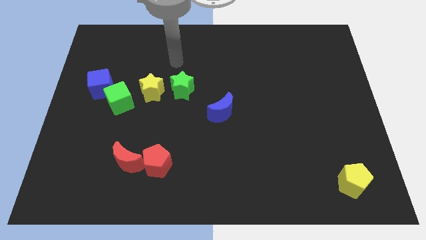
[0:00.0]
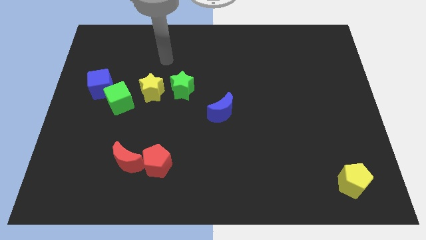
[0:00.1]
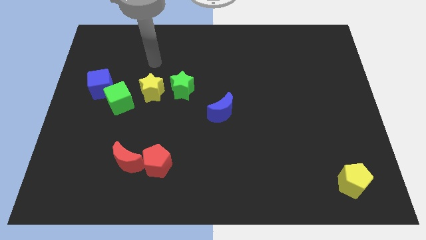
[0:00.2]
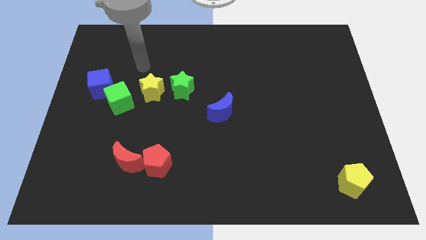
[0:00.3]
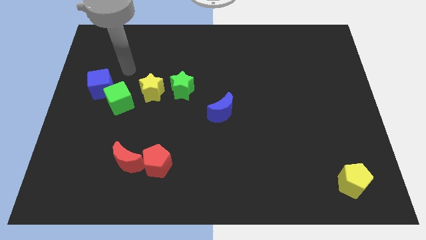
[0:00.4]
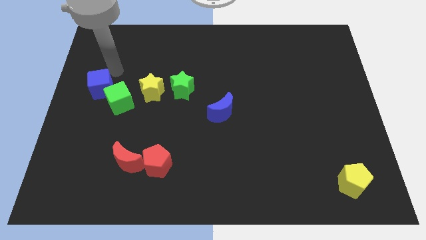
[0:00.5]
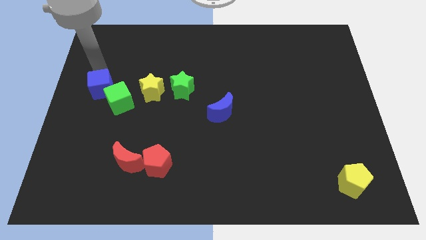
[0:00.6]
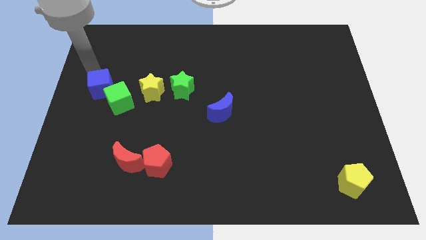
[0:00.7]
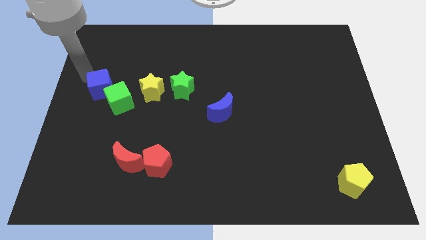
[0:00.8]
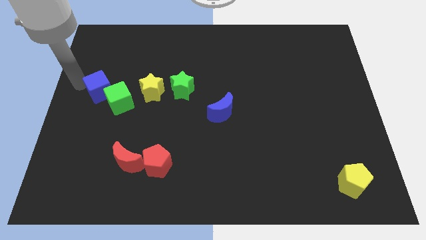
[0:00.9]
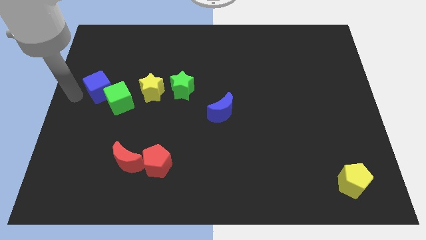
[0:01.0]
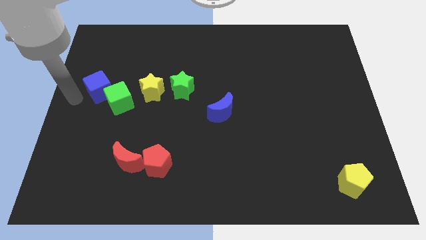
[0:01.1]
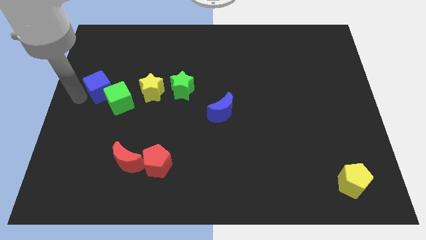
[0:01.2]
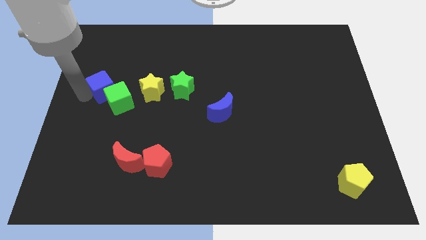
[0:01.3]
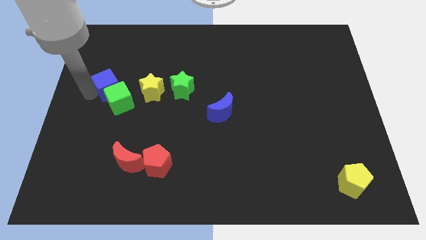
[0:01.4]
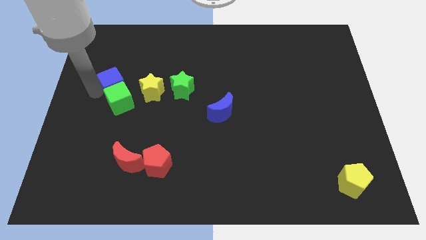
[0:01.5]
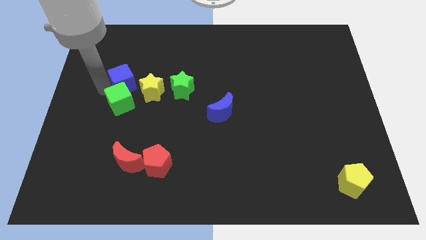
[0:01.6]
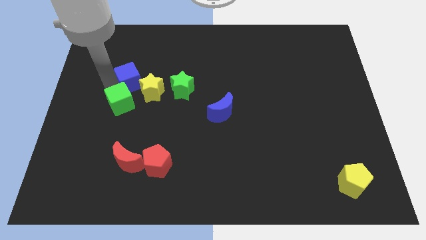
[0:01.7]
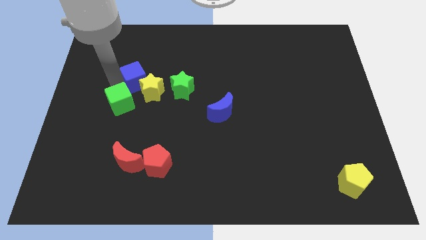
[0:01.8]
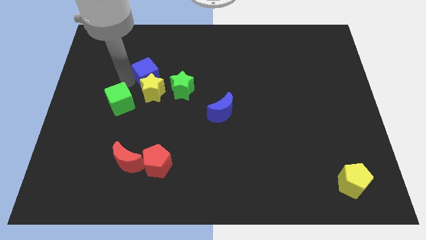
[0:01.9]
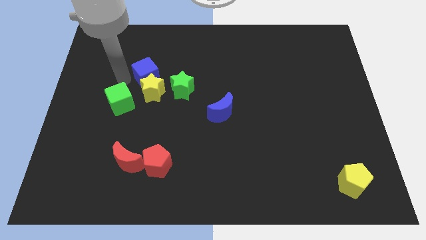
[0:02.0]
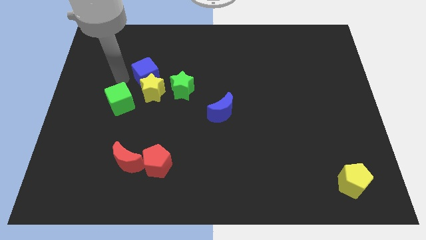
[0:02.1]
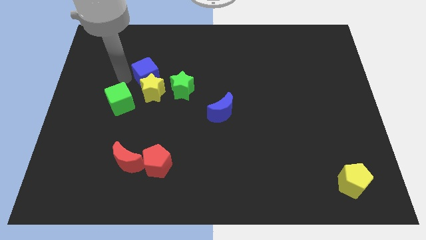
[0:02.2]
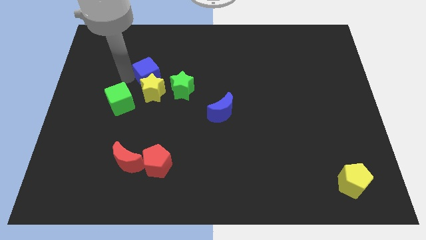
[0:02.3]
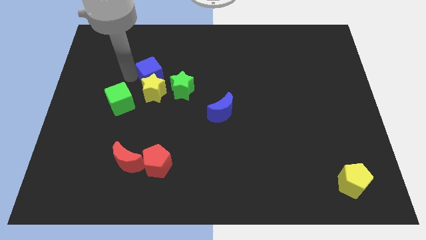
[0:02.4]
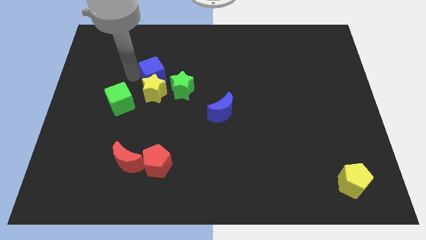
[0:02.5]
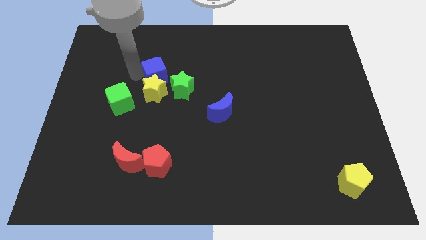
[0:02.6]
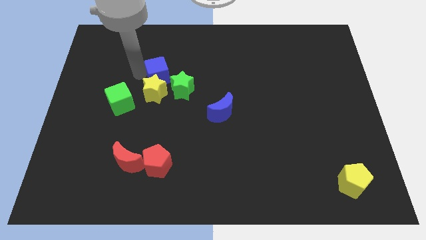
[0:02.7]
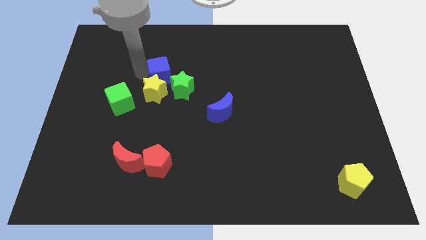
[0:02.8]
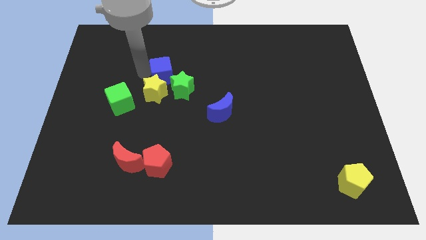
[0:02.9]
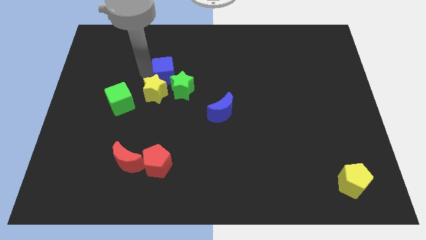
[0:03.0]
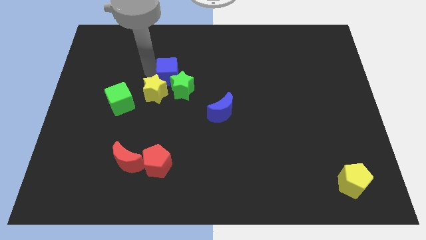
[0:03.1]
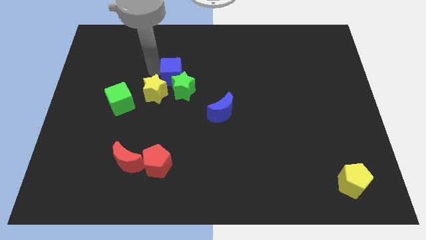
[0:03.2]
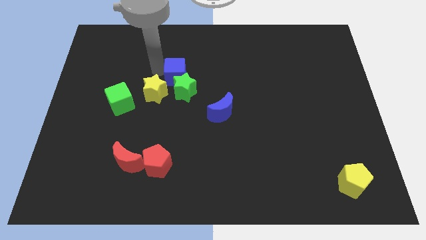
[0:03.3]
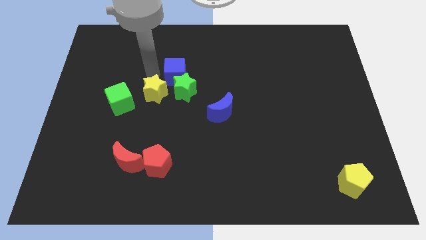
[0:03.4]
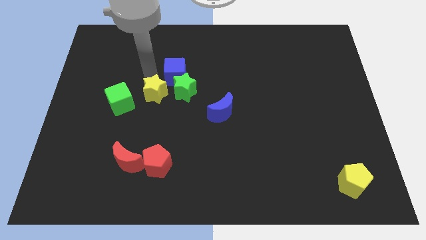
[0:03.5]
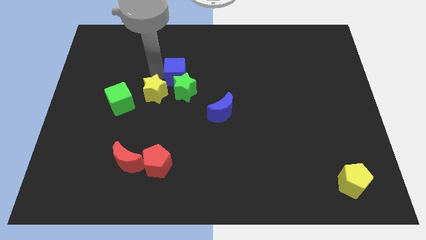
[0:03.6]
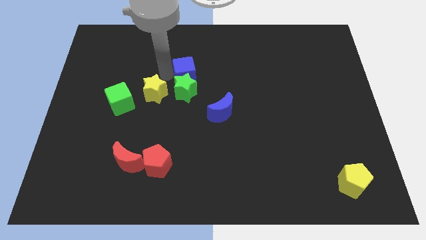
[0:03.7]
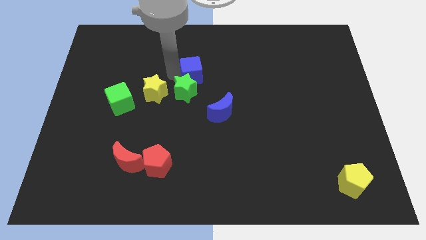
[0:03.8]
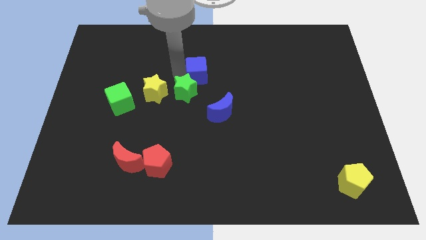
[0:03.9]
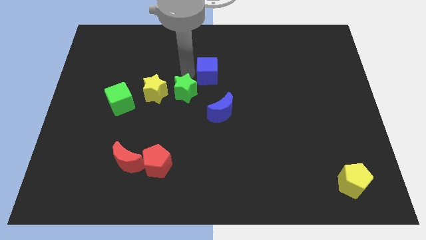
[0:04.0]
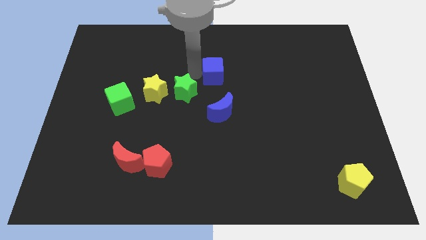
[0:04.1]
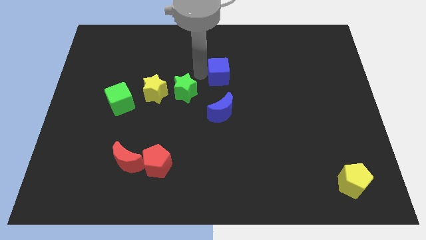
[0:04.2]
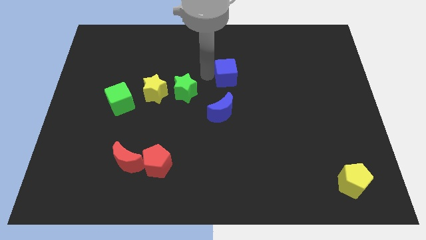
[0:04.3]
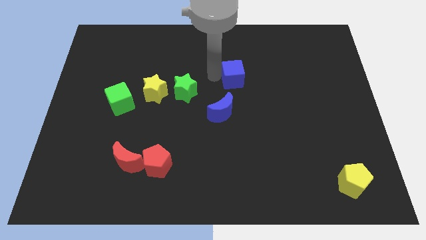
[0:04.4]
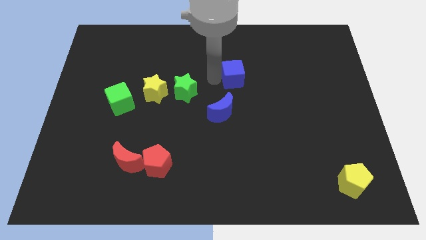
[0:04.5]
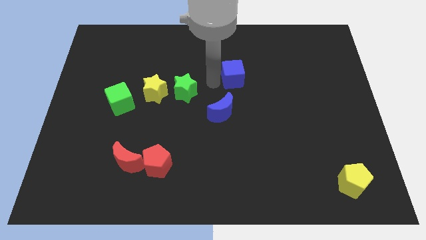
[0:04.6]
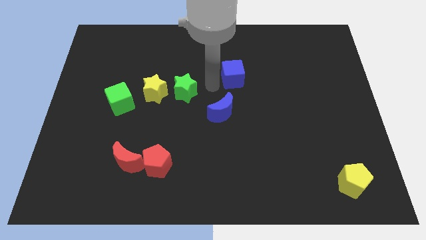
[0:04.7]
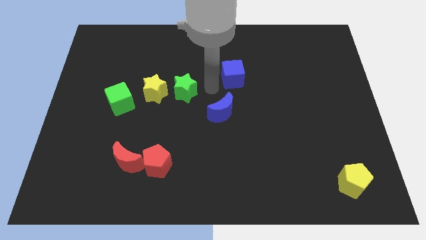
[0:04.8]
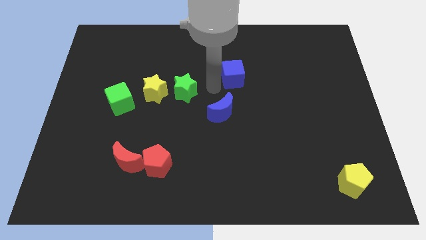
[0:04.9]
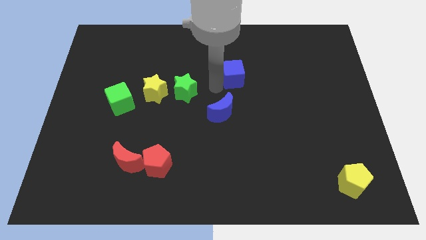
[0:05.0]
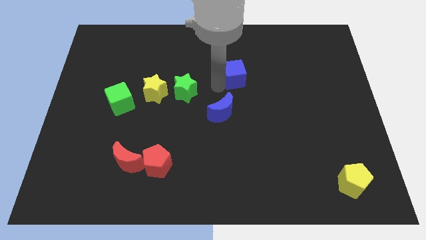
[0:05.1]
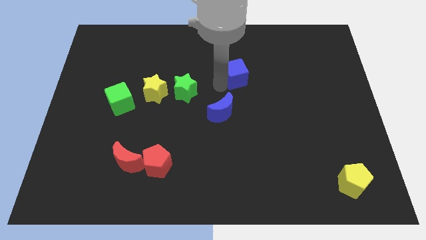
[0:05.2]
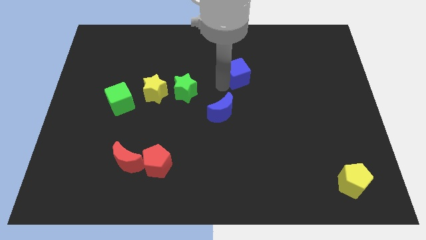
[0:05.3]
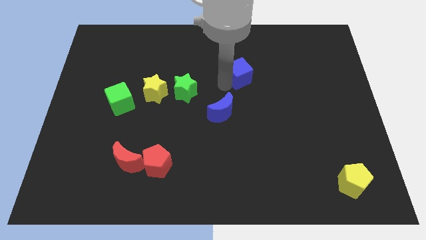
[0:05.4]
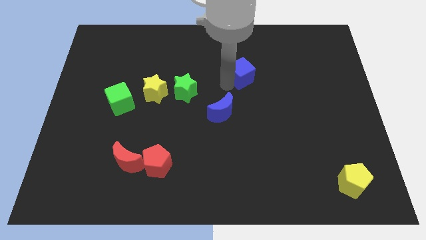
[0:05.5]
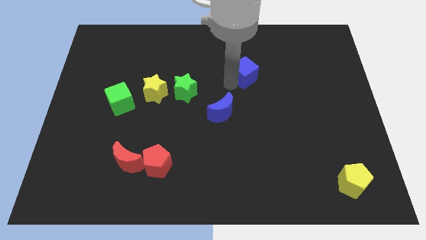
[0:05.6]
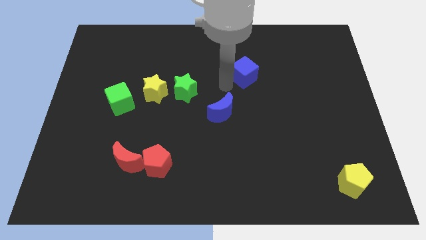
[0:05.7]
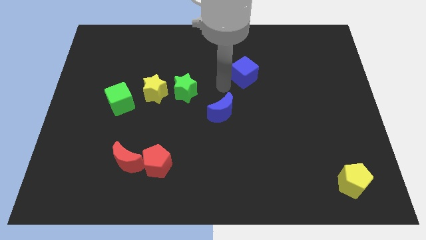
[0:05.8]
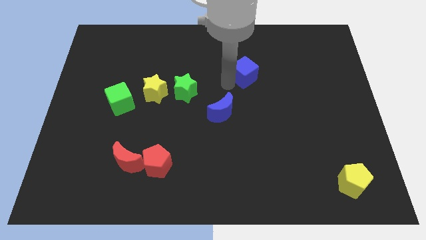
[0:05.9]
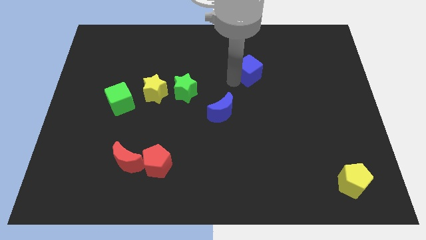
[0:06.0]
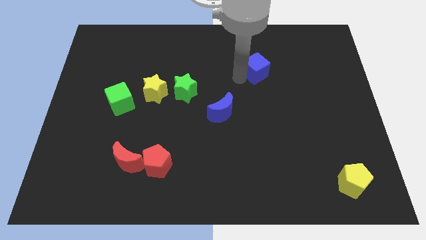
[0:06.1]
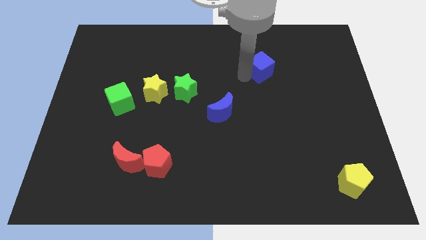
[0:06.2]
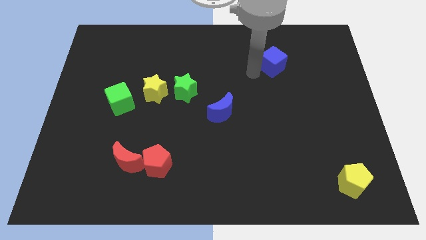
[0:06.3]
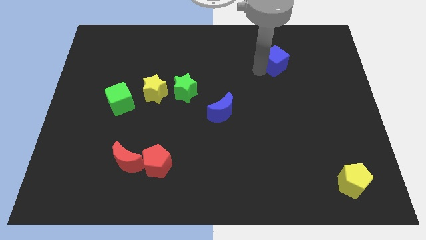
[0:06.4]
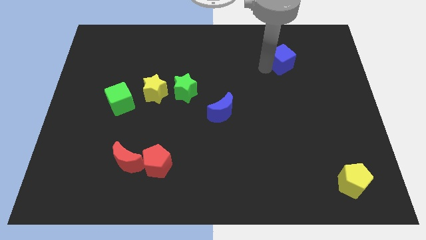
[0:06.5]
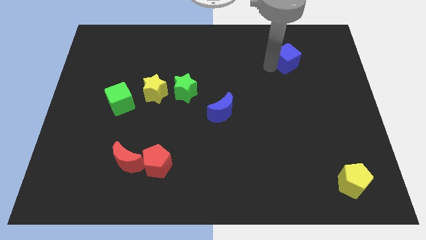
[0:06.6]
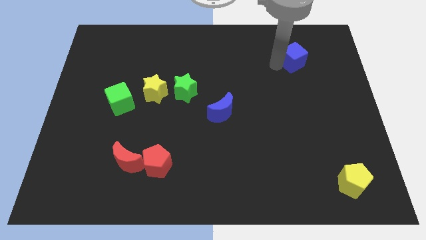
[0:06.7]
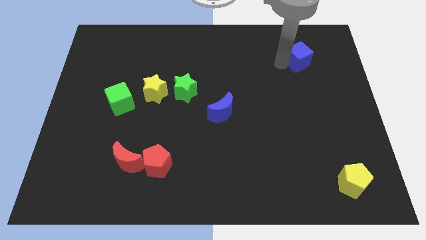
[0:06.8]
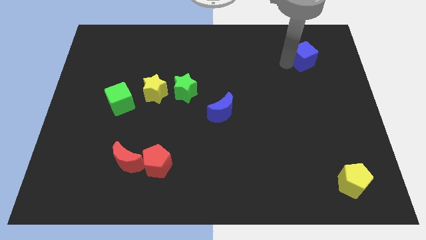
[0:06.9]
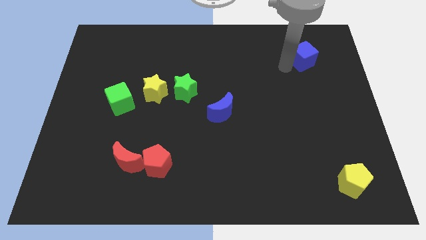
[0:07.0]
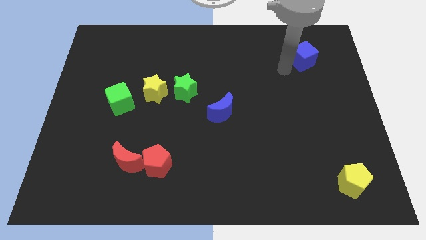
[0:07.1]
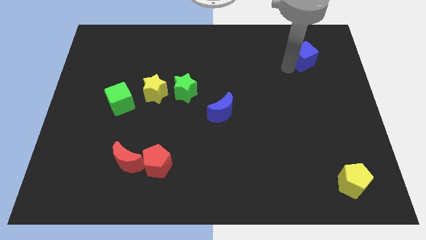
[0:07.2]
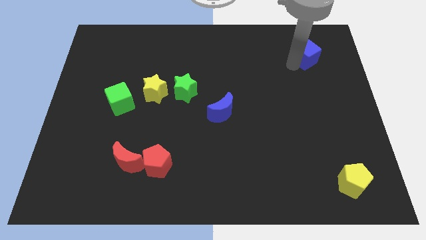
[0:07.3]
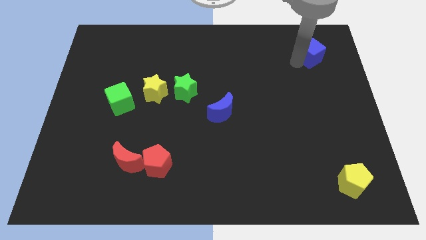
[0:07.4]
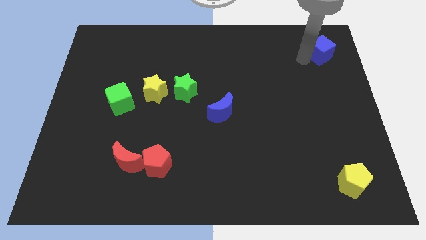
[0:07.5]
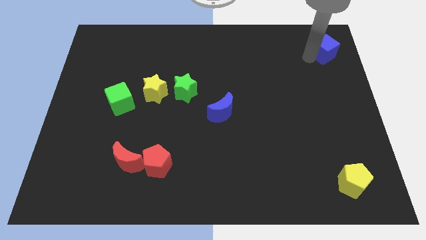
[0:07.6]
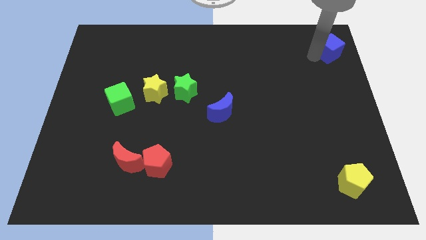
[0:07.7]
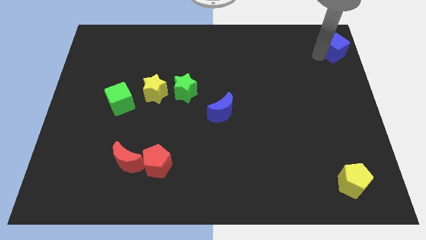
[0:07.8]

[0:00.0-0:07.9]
slide the blue cube to the top right of the board
